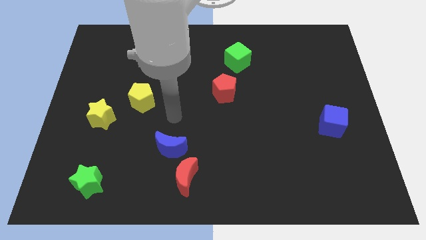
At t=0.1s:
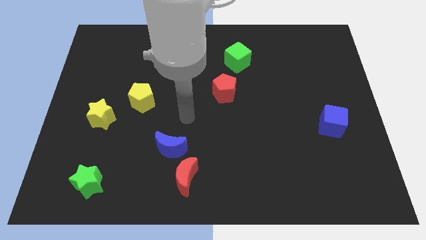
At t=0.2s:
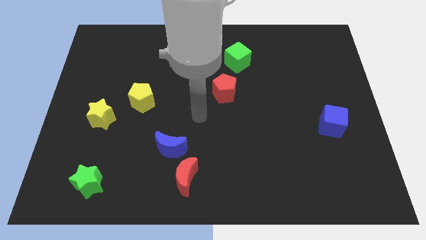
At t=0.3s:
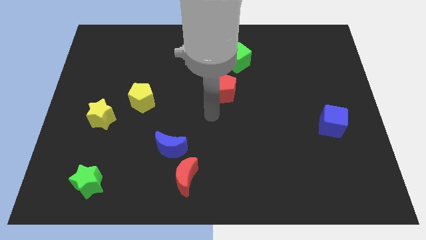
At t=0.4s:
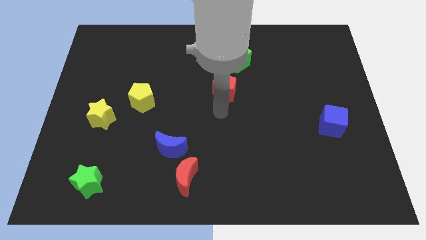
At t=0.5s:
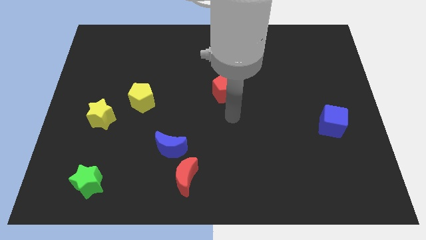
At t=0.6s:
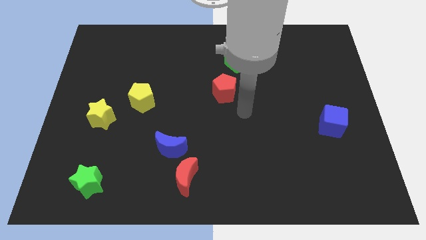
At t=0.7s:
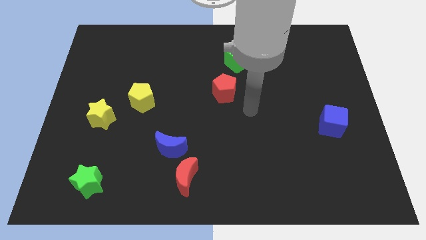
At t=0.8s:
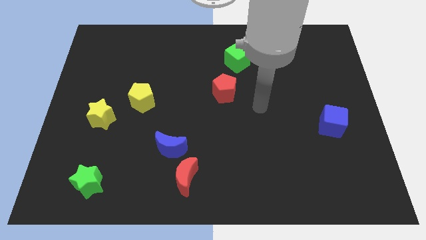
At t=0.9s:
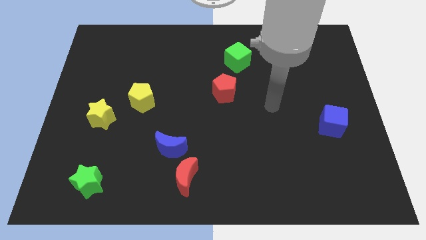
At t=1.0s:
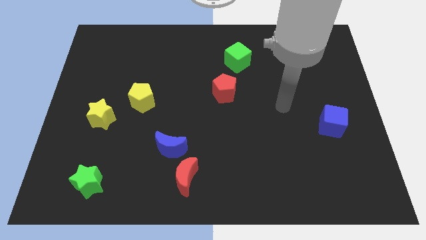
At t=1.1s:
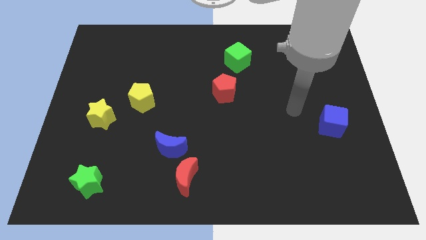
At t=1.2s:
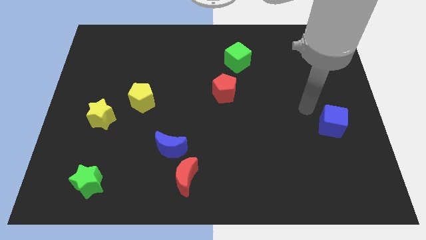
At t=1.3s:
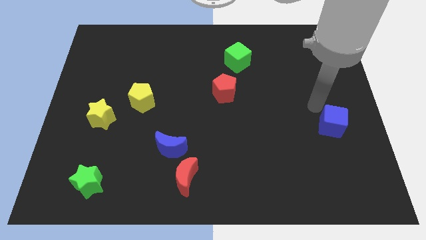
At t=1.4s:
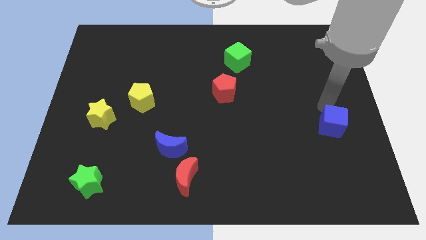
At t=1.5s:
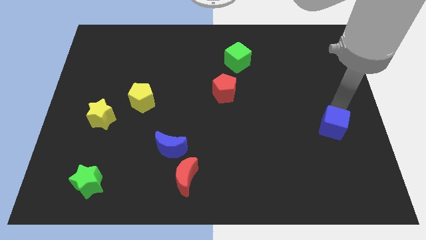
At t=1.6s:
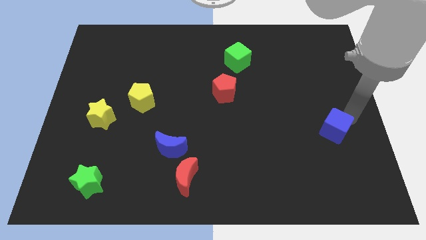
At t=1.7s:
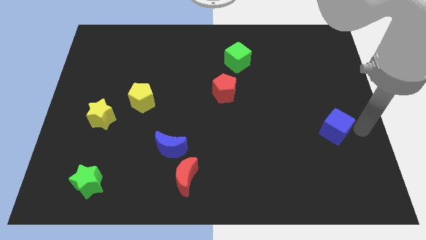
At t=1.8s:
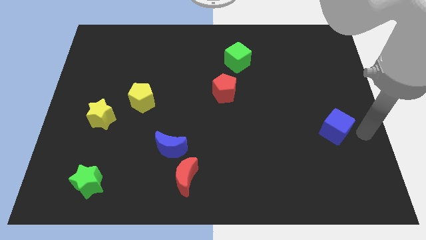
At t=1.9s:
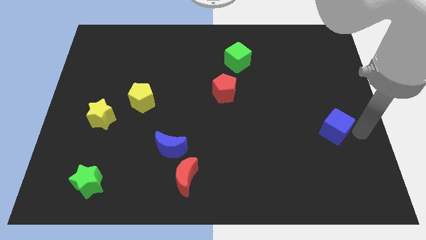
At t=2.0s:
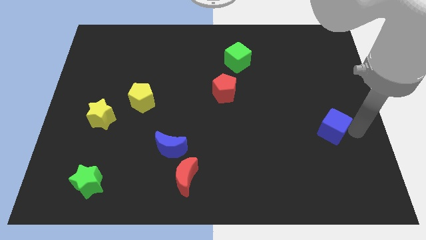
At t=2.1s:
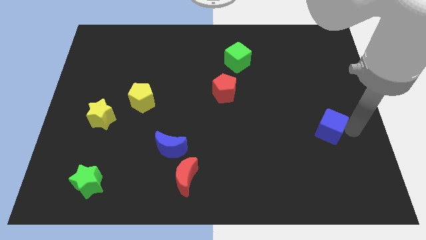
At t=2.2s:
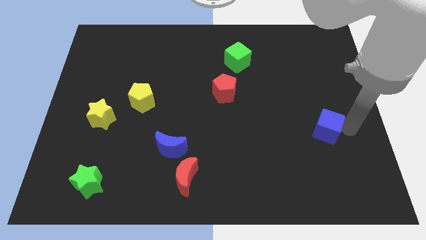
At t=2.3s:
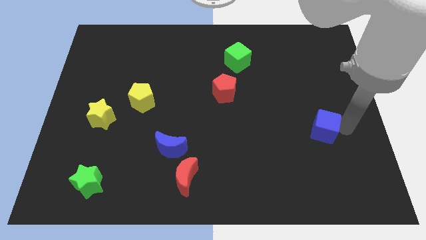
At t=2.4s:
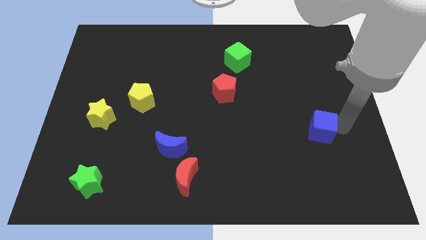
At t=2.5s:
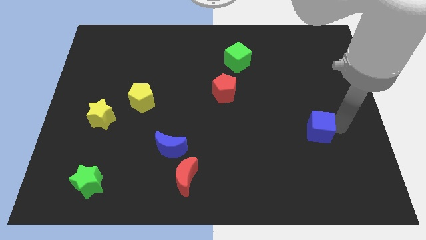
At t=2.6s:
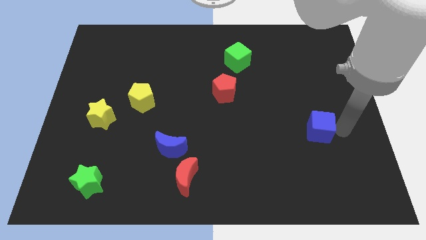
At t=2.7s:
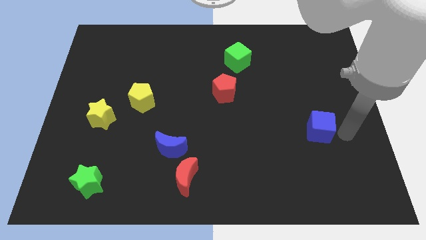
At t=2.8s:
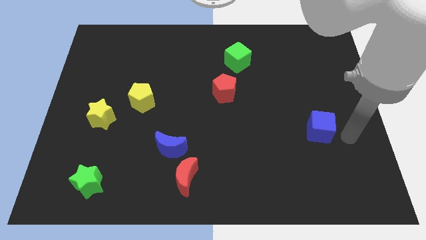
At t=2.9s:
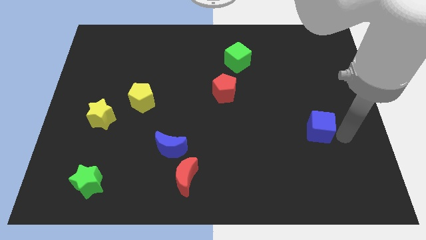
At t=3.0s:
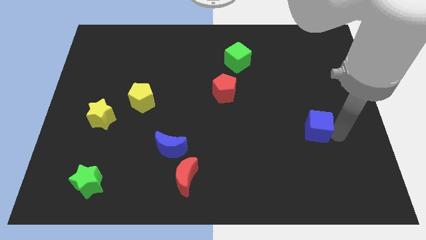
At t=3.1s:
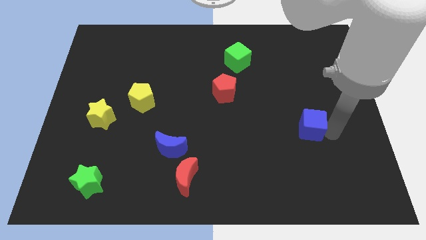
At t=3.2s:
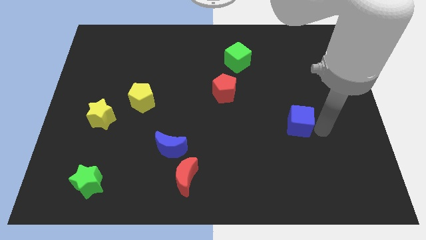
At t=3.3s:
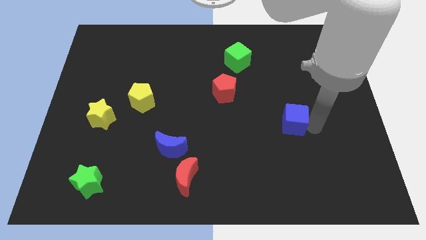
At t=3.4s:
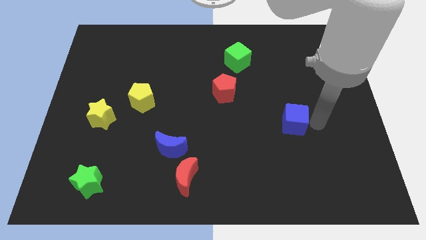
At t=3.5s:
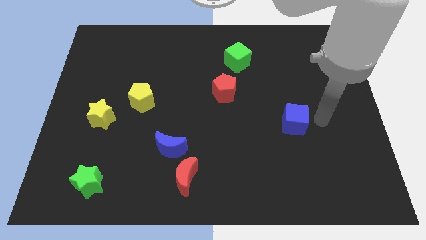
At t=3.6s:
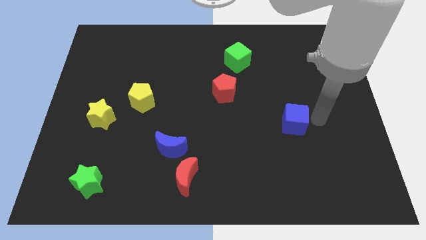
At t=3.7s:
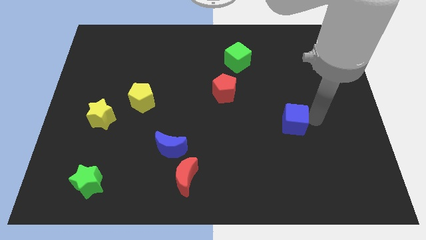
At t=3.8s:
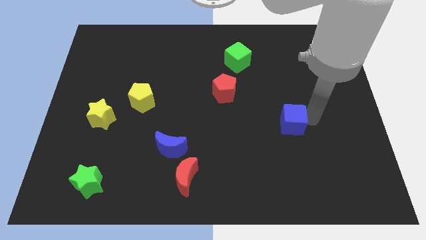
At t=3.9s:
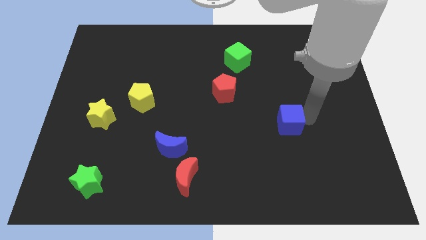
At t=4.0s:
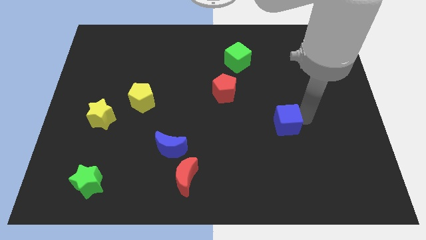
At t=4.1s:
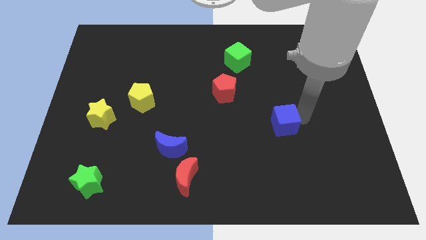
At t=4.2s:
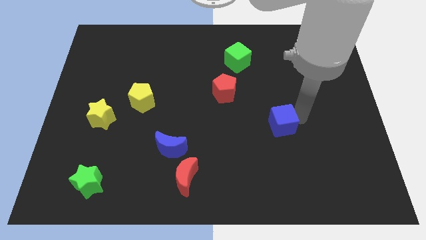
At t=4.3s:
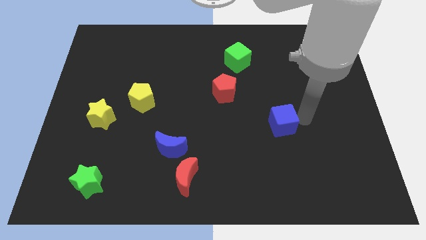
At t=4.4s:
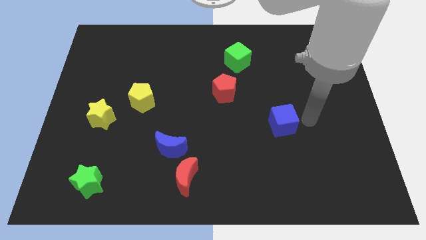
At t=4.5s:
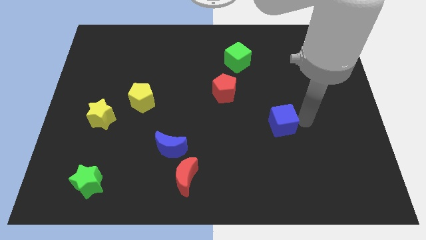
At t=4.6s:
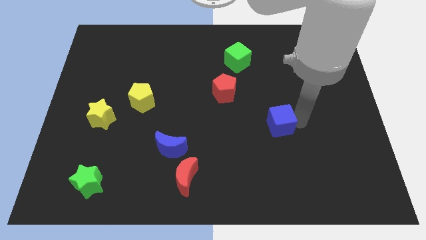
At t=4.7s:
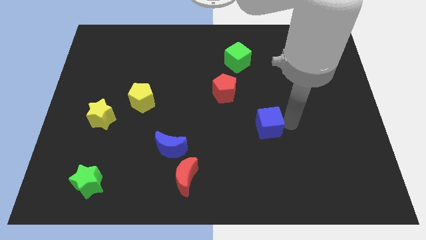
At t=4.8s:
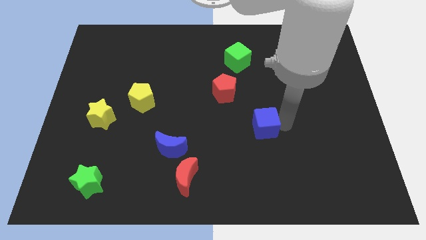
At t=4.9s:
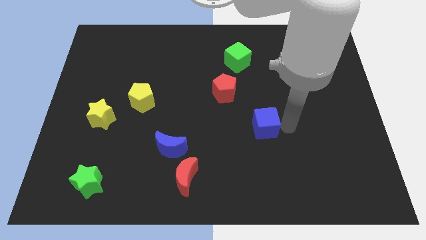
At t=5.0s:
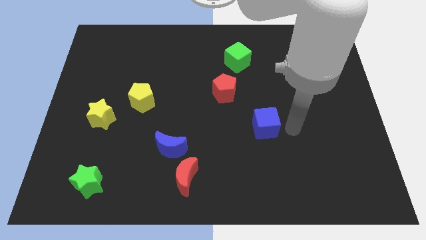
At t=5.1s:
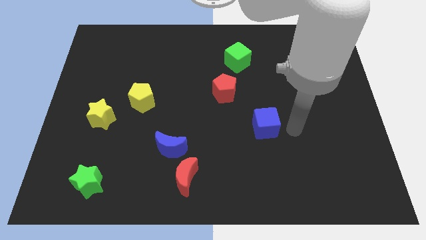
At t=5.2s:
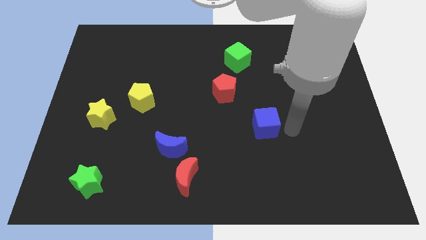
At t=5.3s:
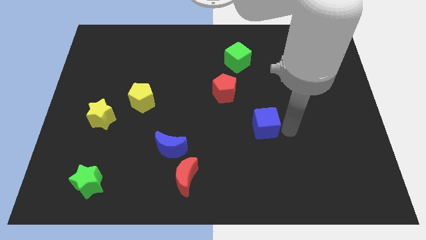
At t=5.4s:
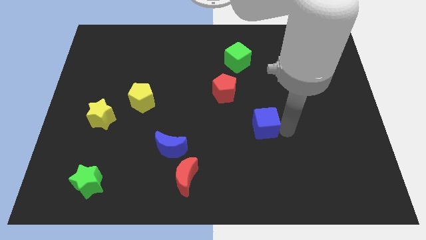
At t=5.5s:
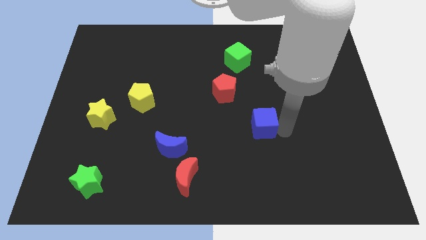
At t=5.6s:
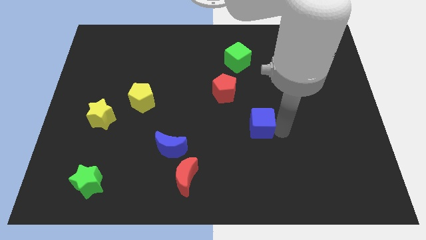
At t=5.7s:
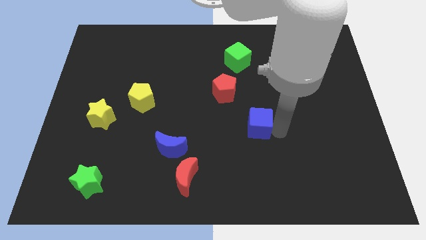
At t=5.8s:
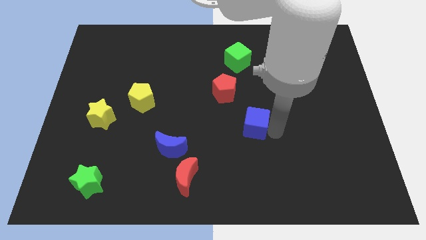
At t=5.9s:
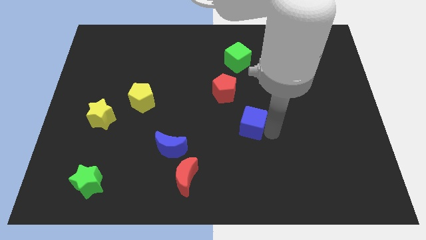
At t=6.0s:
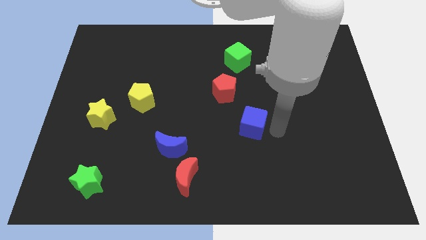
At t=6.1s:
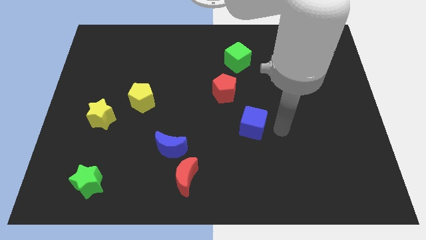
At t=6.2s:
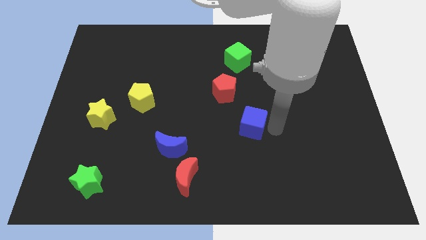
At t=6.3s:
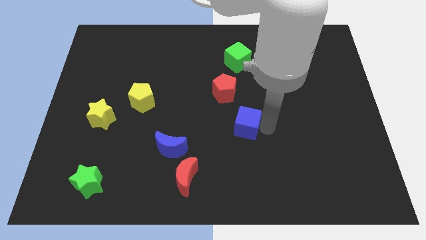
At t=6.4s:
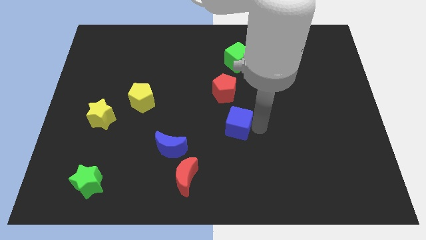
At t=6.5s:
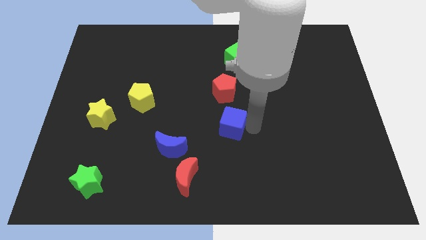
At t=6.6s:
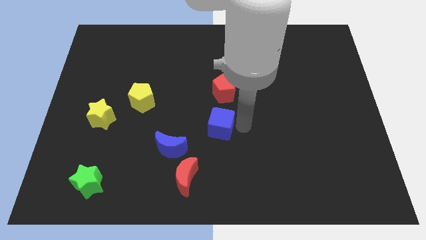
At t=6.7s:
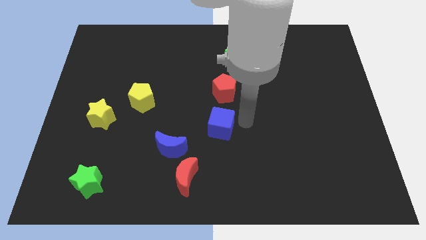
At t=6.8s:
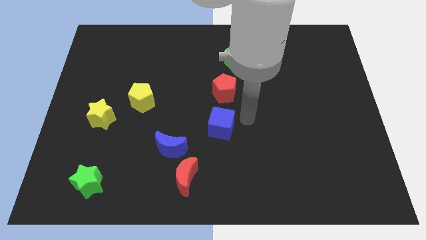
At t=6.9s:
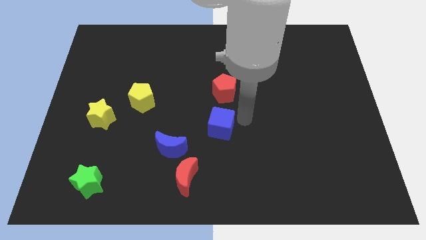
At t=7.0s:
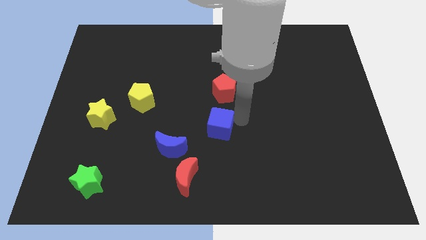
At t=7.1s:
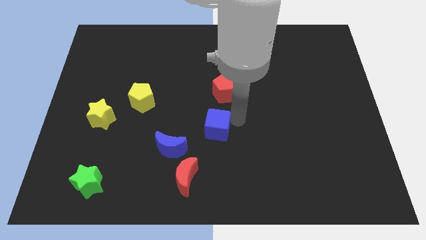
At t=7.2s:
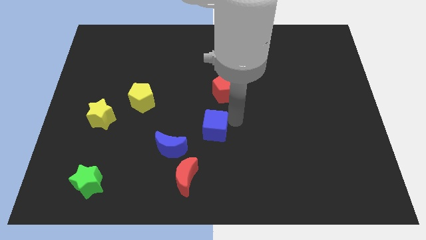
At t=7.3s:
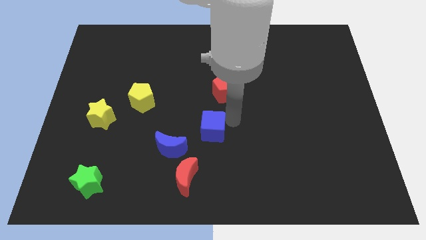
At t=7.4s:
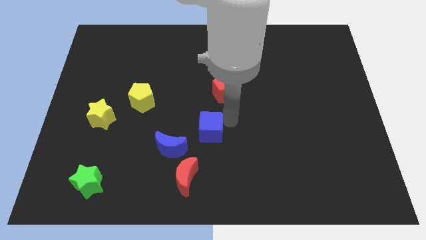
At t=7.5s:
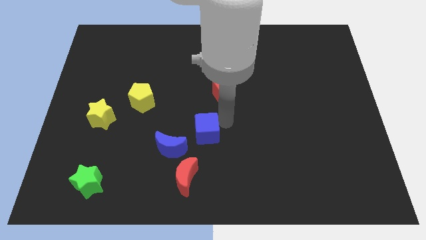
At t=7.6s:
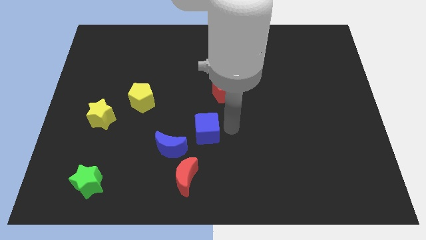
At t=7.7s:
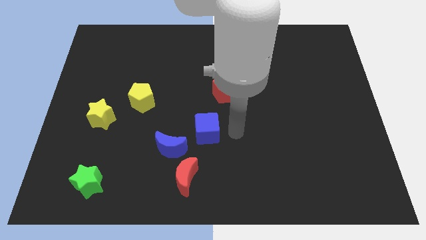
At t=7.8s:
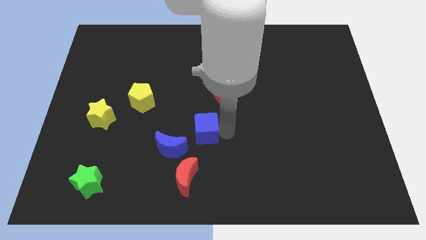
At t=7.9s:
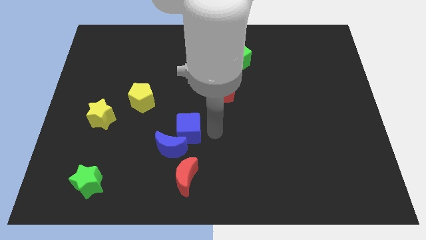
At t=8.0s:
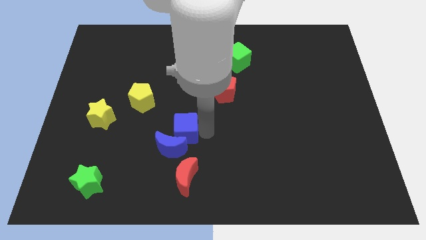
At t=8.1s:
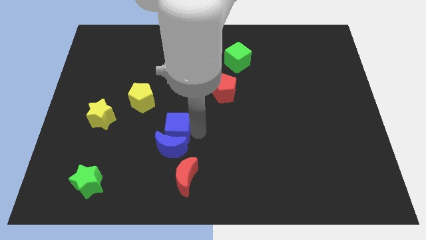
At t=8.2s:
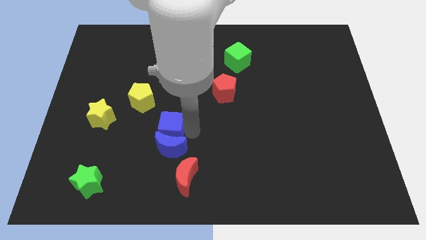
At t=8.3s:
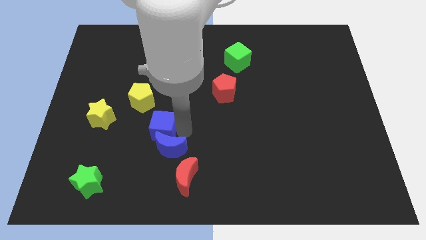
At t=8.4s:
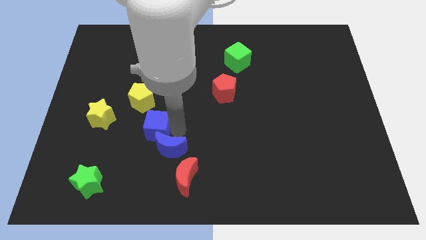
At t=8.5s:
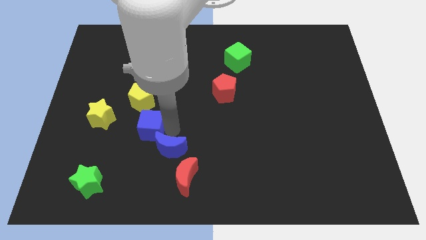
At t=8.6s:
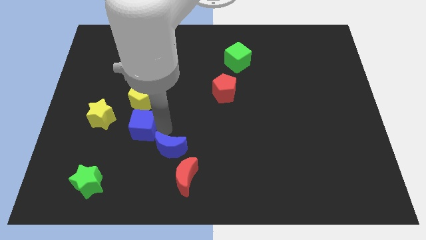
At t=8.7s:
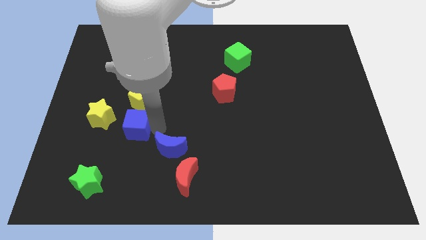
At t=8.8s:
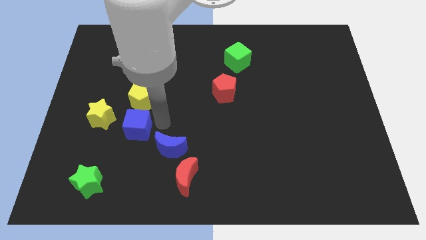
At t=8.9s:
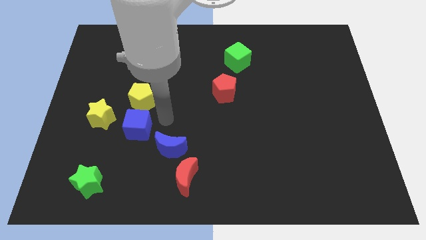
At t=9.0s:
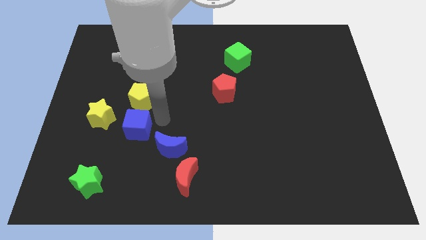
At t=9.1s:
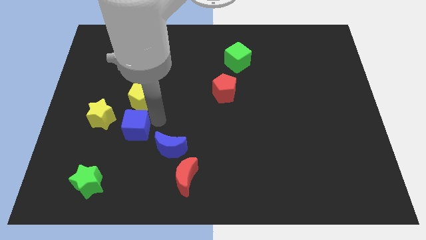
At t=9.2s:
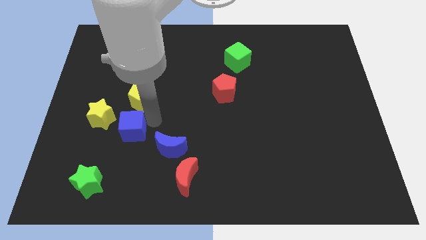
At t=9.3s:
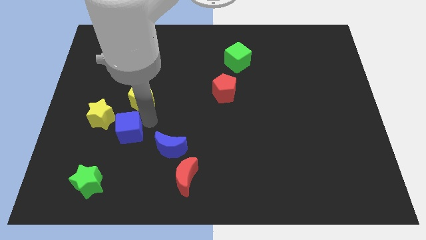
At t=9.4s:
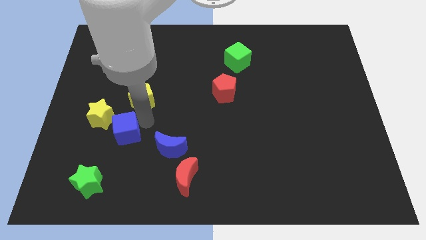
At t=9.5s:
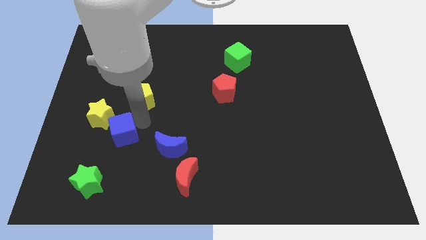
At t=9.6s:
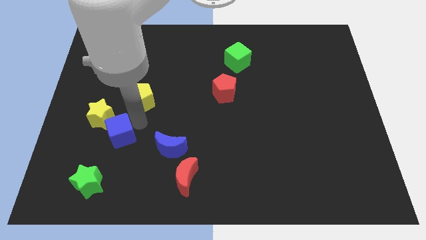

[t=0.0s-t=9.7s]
slide the blue cube to the top side of the green star
